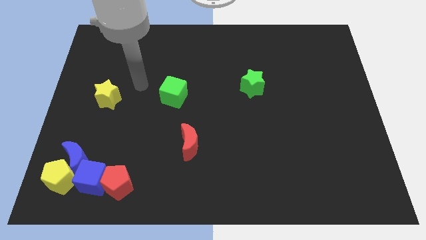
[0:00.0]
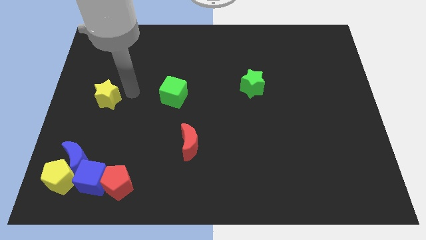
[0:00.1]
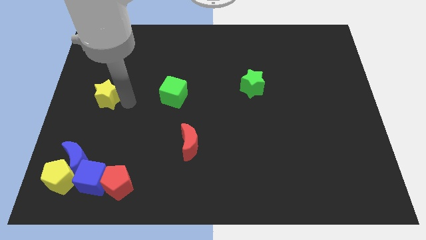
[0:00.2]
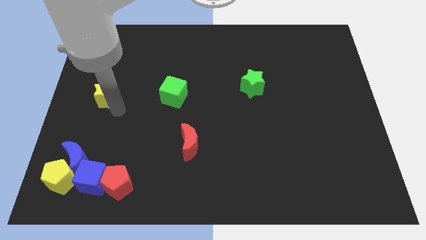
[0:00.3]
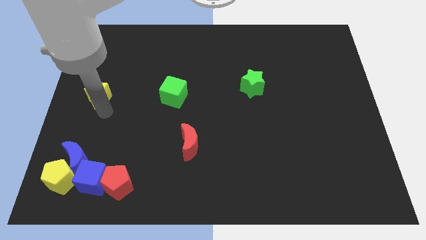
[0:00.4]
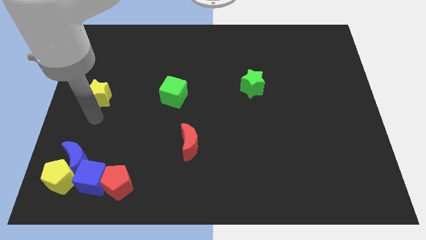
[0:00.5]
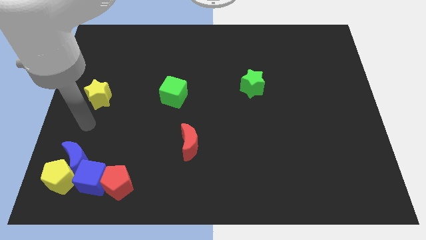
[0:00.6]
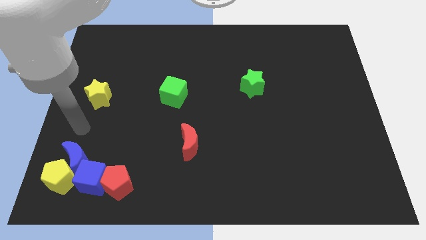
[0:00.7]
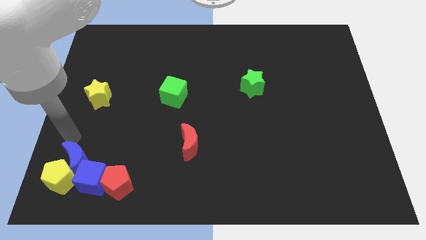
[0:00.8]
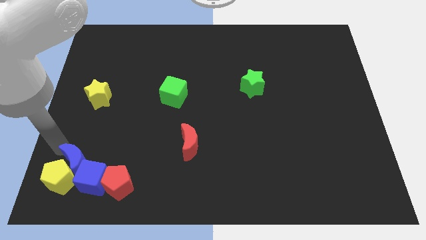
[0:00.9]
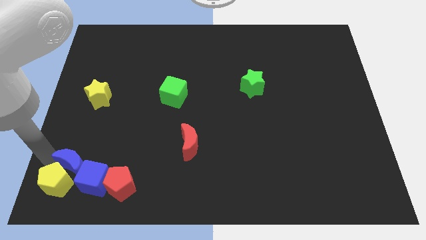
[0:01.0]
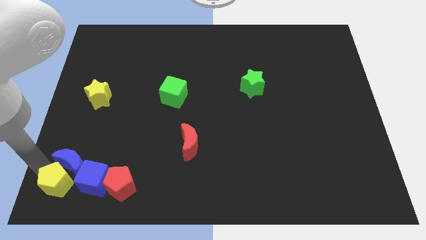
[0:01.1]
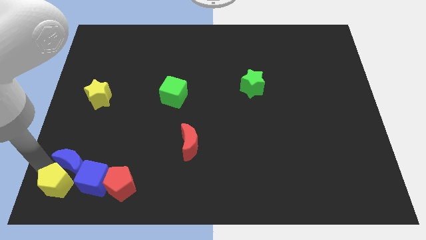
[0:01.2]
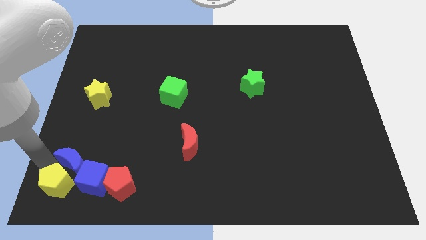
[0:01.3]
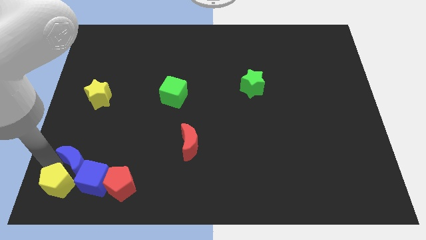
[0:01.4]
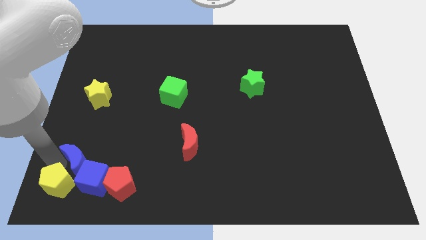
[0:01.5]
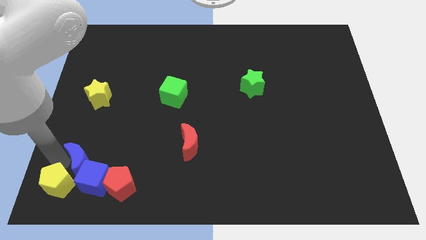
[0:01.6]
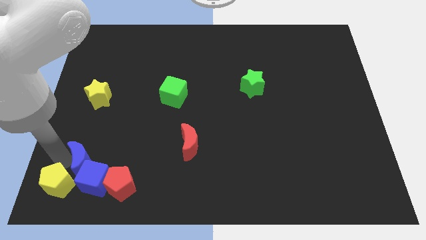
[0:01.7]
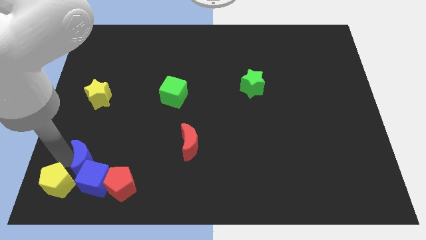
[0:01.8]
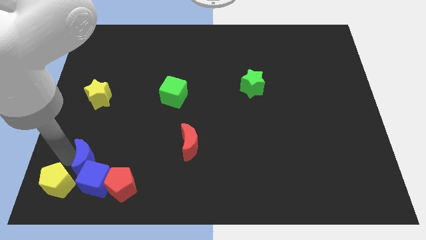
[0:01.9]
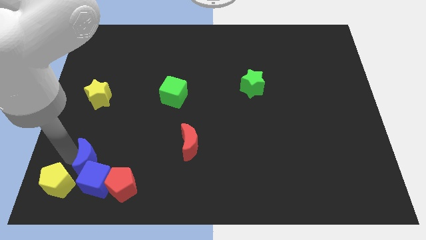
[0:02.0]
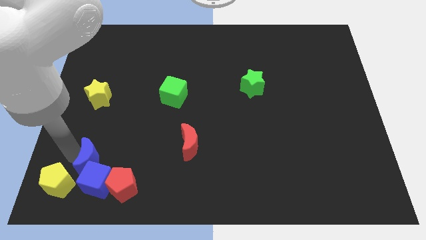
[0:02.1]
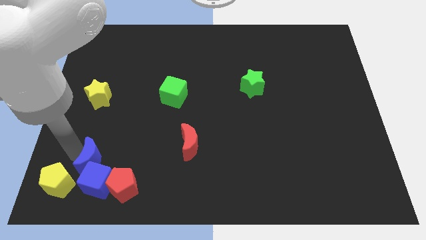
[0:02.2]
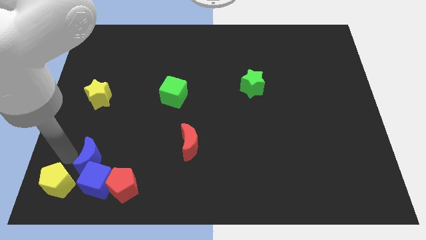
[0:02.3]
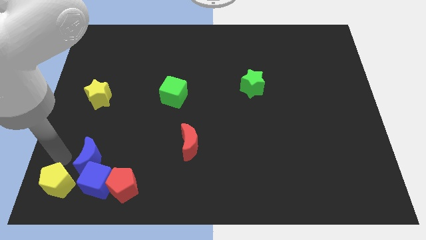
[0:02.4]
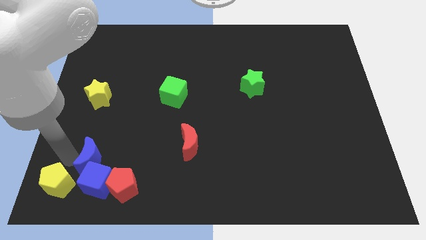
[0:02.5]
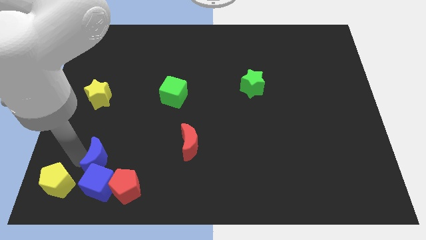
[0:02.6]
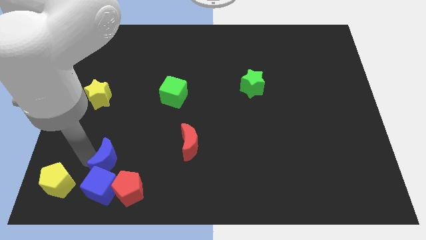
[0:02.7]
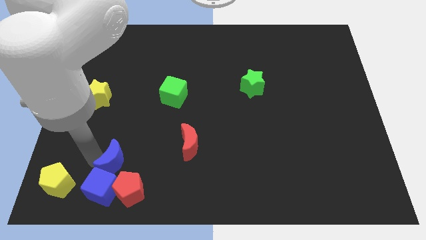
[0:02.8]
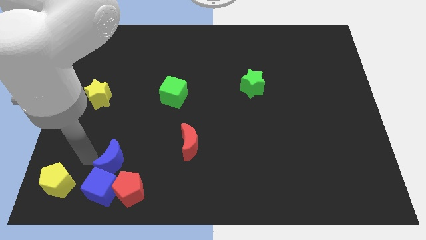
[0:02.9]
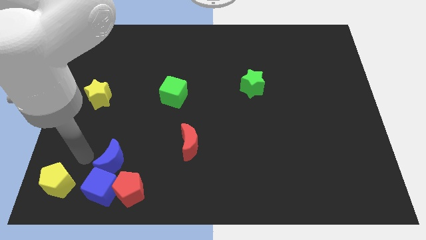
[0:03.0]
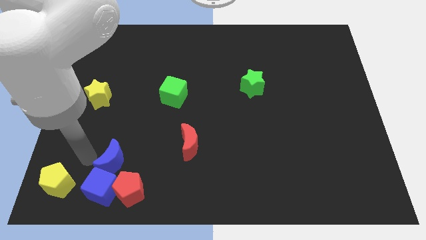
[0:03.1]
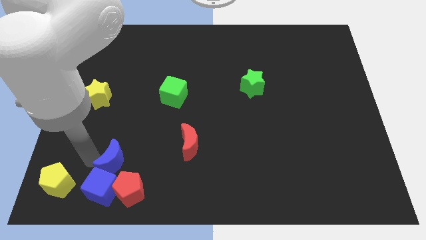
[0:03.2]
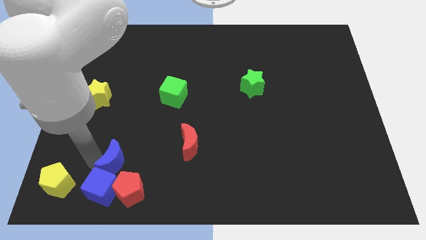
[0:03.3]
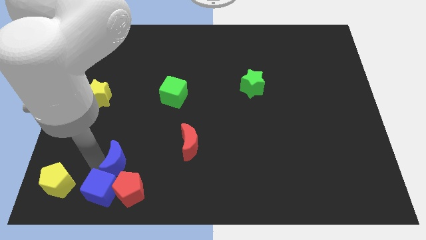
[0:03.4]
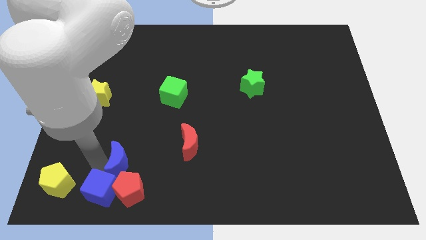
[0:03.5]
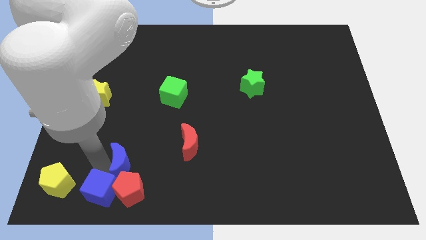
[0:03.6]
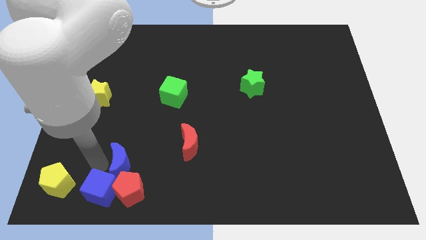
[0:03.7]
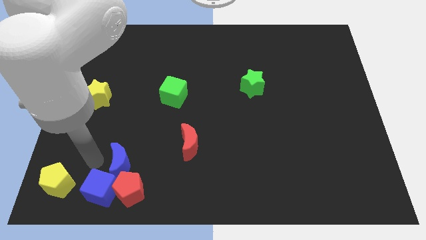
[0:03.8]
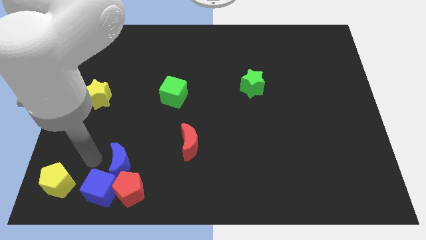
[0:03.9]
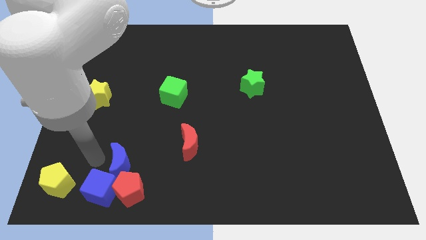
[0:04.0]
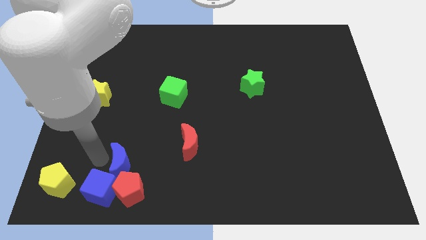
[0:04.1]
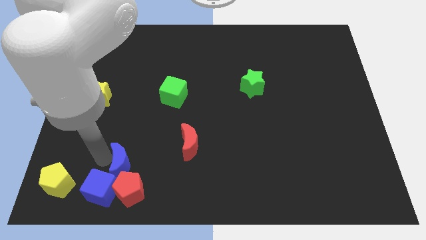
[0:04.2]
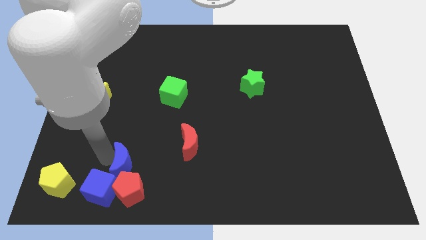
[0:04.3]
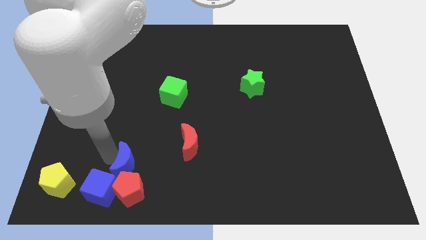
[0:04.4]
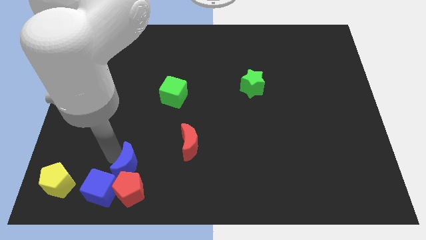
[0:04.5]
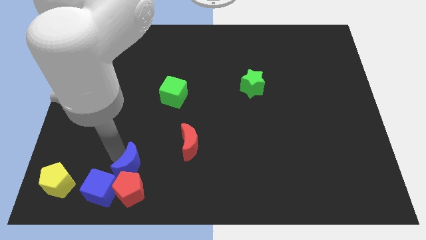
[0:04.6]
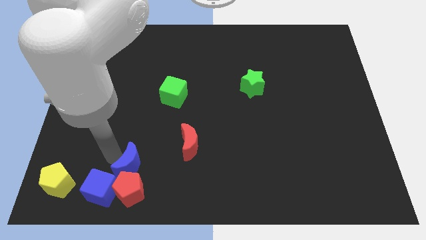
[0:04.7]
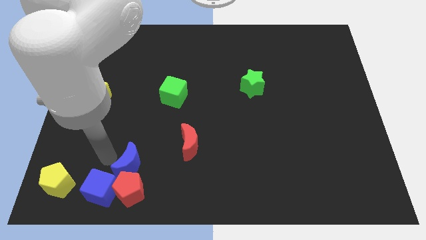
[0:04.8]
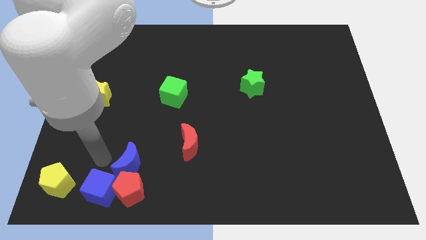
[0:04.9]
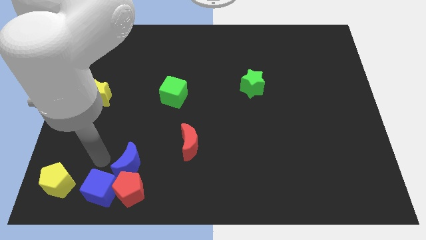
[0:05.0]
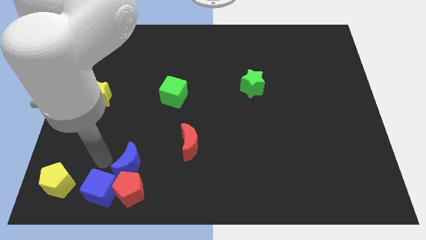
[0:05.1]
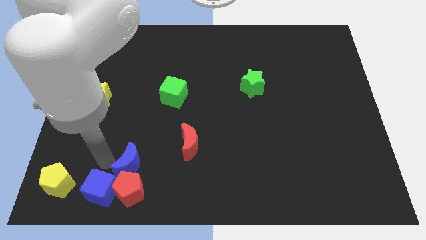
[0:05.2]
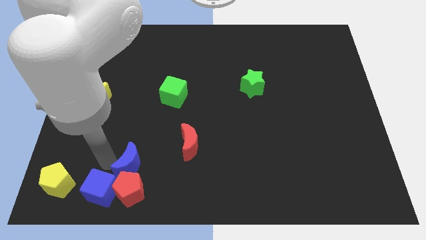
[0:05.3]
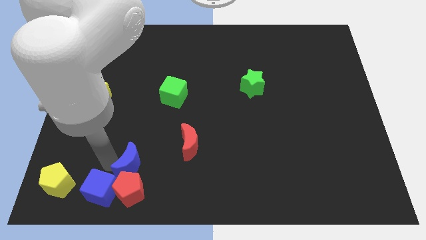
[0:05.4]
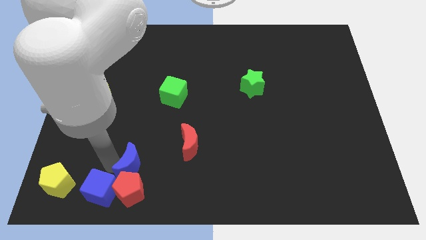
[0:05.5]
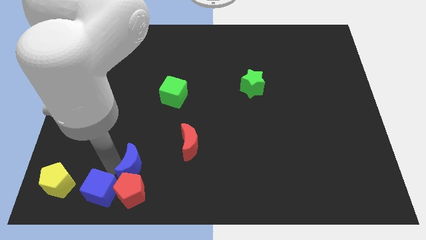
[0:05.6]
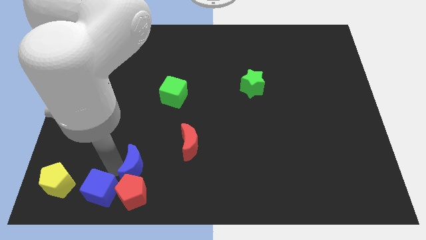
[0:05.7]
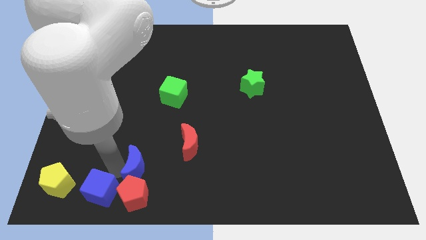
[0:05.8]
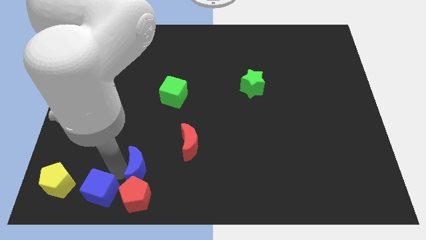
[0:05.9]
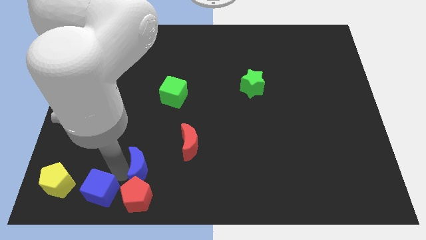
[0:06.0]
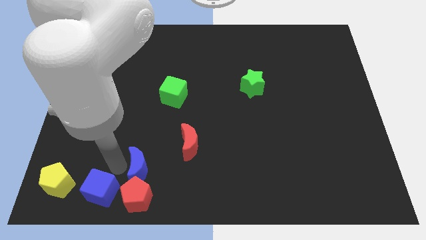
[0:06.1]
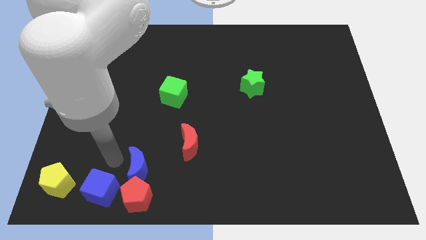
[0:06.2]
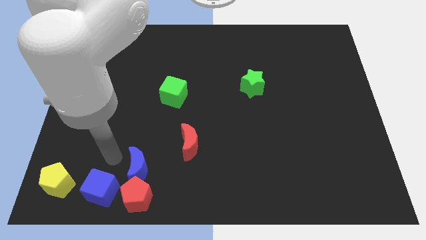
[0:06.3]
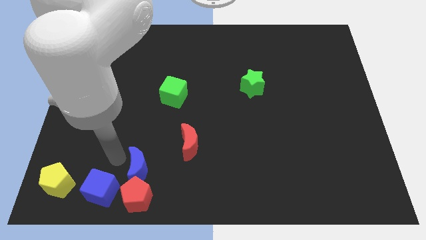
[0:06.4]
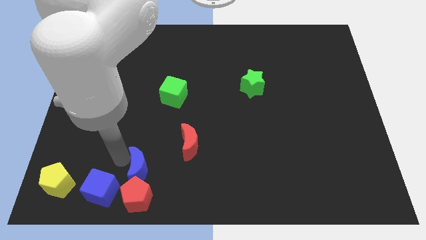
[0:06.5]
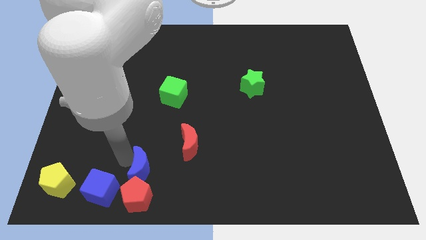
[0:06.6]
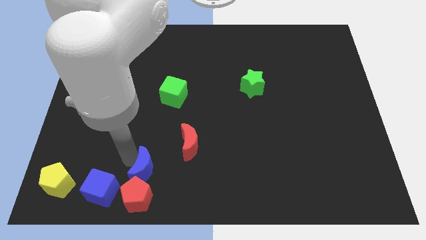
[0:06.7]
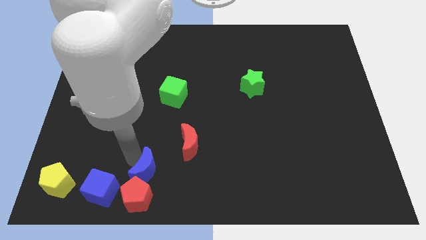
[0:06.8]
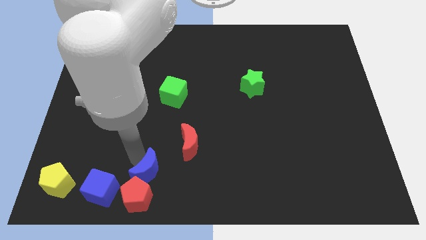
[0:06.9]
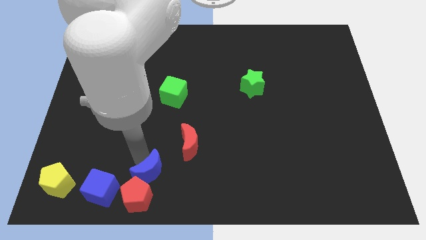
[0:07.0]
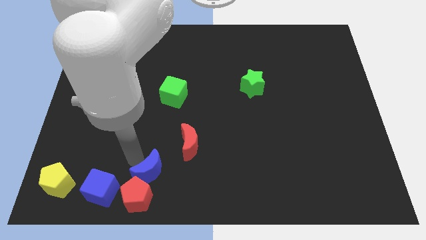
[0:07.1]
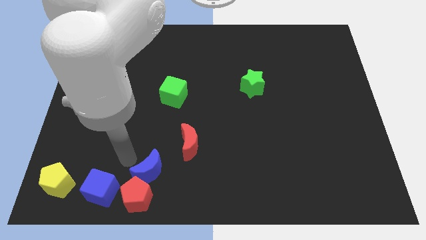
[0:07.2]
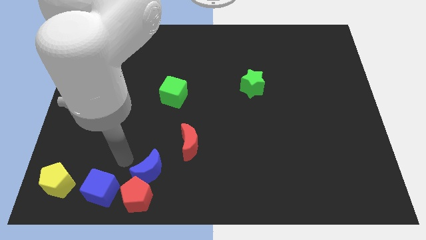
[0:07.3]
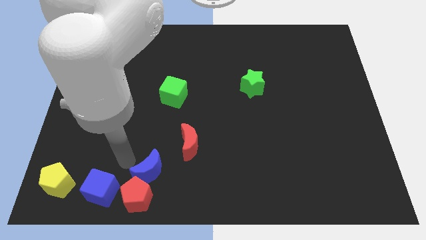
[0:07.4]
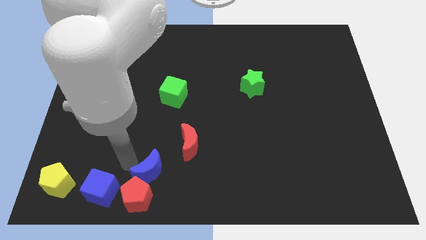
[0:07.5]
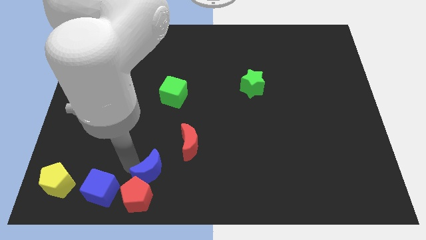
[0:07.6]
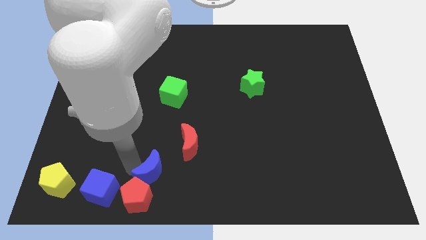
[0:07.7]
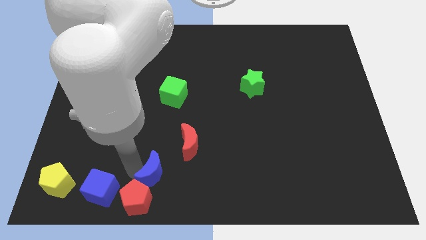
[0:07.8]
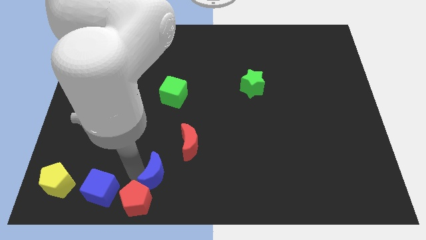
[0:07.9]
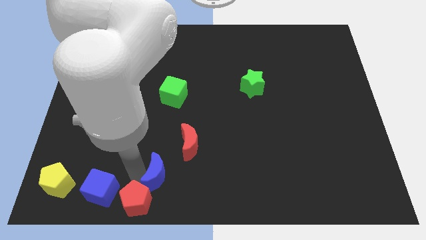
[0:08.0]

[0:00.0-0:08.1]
move the blue moon to the bottom side
